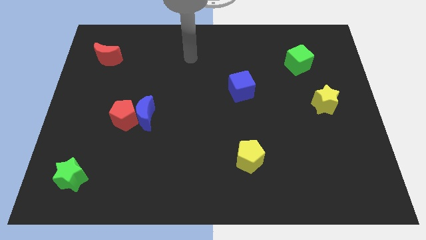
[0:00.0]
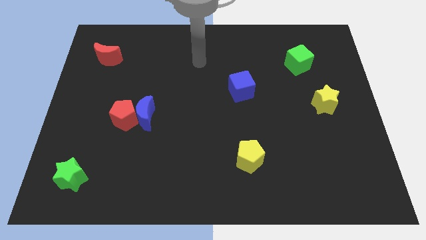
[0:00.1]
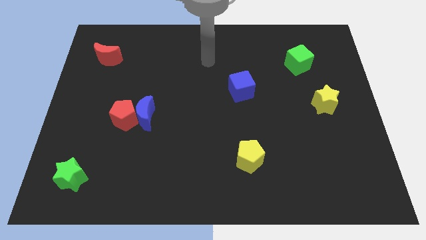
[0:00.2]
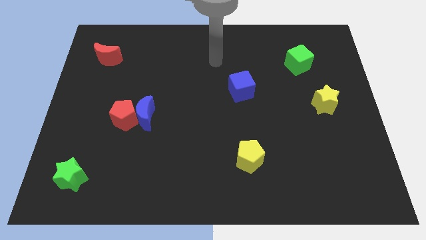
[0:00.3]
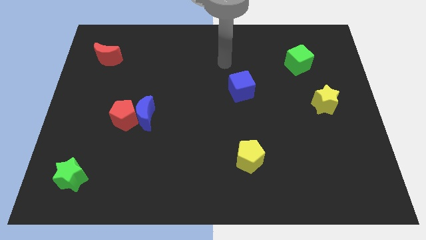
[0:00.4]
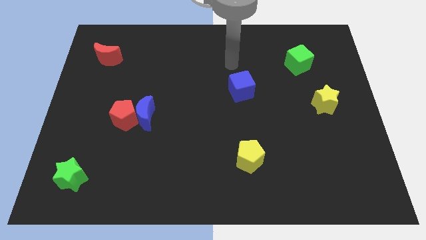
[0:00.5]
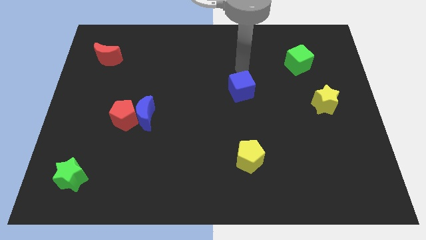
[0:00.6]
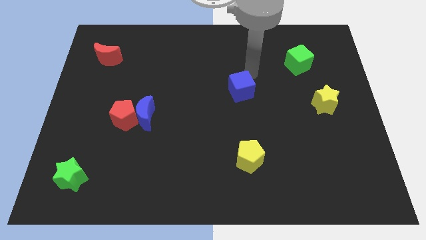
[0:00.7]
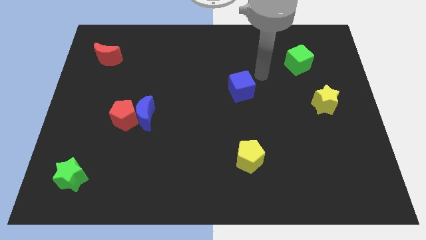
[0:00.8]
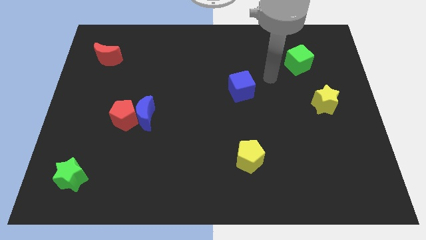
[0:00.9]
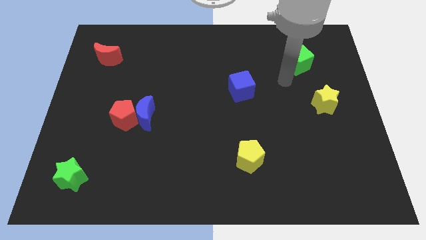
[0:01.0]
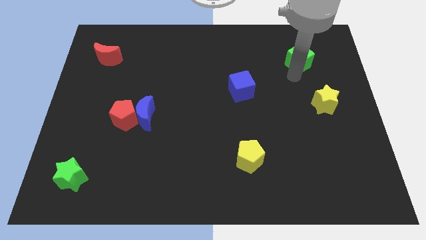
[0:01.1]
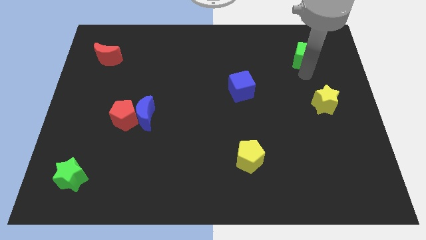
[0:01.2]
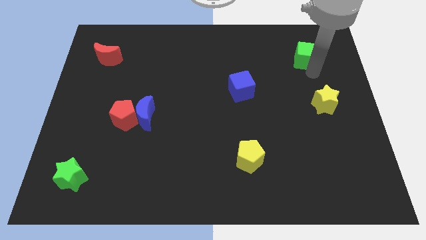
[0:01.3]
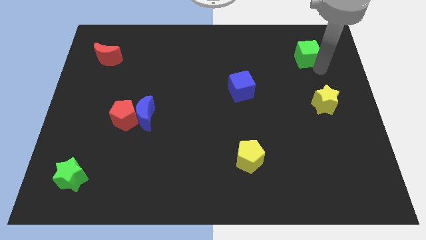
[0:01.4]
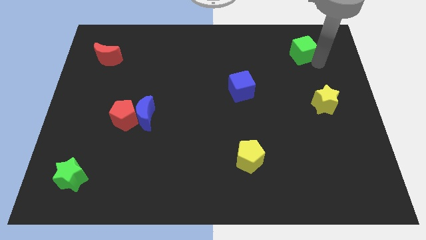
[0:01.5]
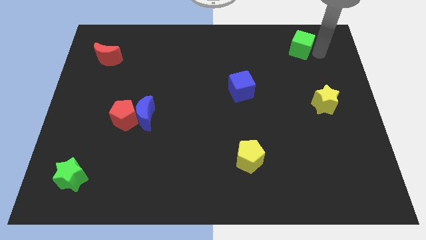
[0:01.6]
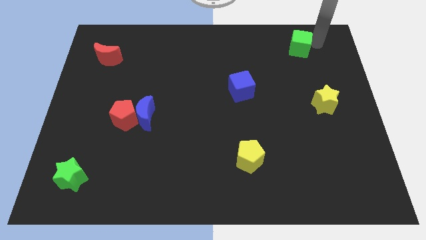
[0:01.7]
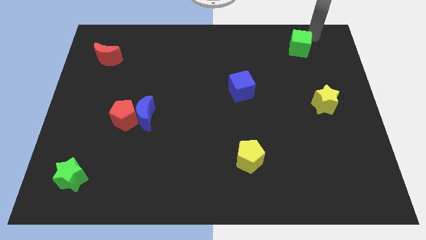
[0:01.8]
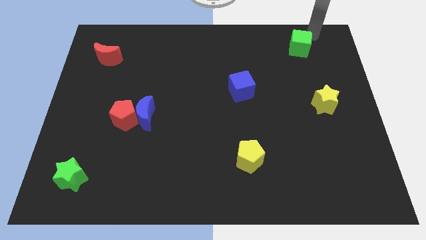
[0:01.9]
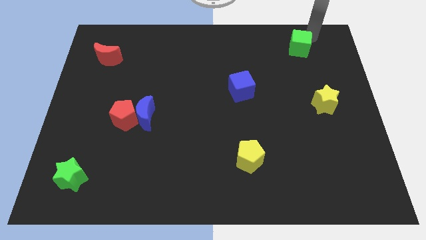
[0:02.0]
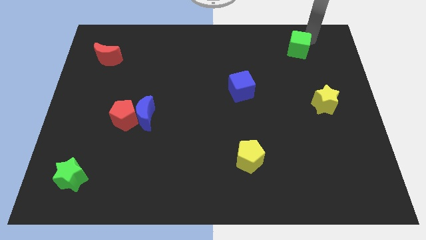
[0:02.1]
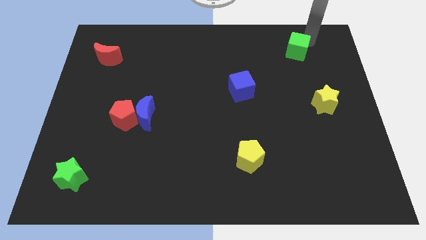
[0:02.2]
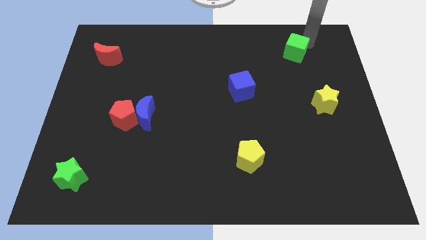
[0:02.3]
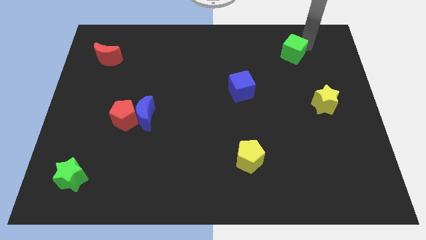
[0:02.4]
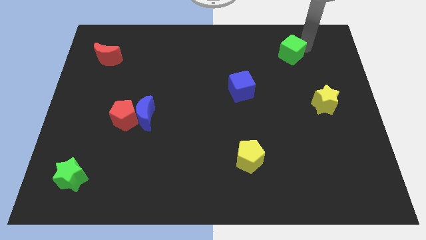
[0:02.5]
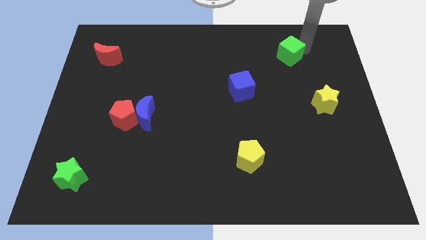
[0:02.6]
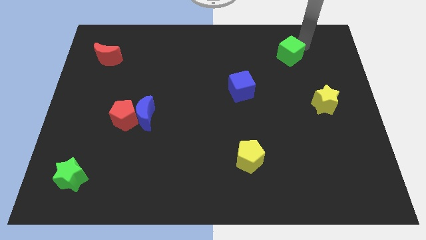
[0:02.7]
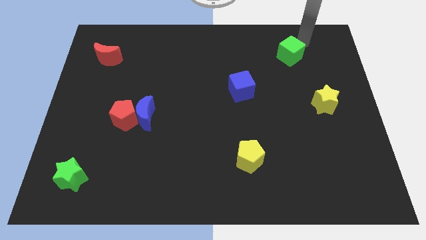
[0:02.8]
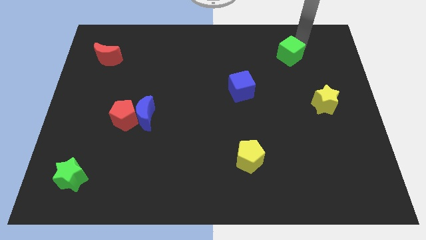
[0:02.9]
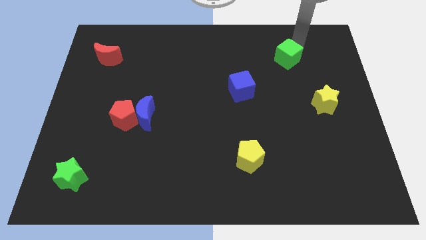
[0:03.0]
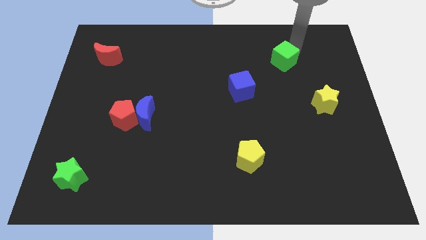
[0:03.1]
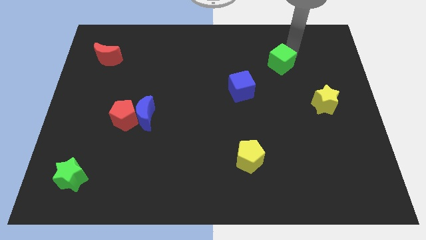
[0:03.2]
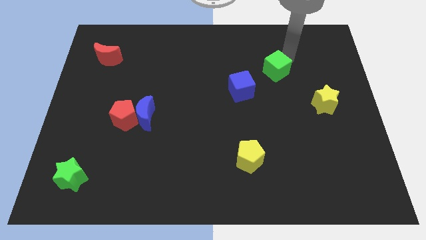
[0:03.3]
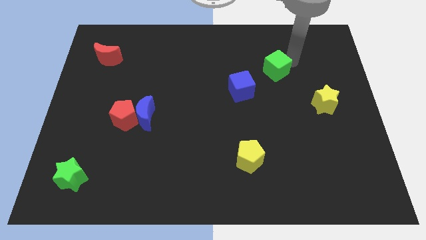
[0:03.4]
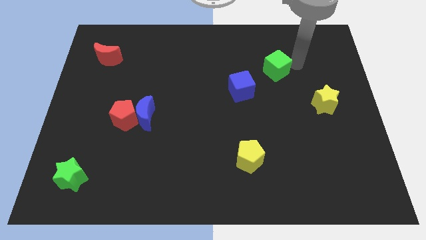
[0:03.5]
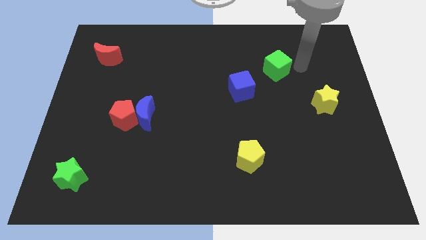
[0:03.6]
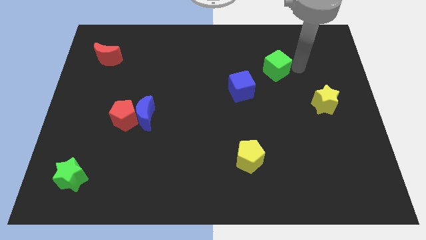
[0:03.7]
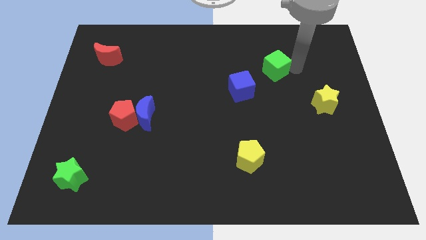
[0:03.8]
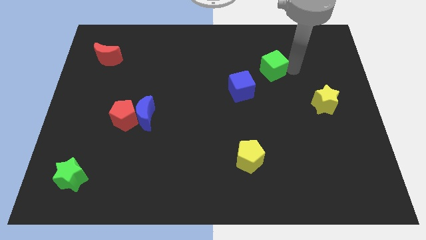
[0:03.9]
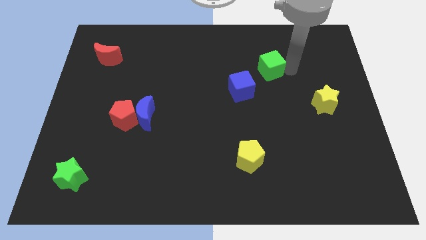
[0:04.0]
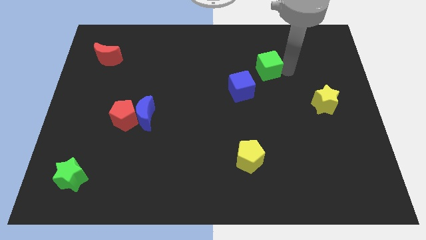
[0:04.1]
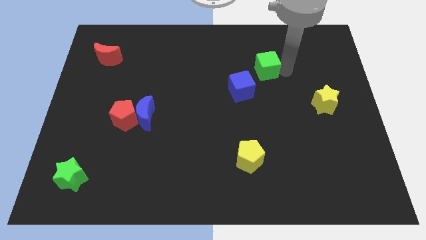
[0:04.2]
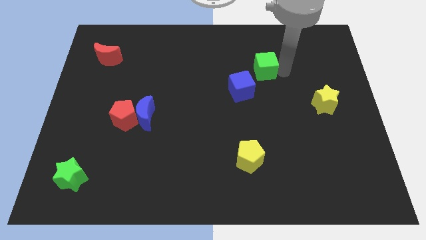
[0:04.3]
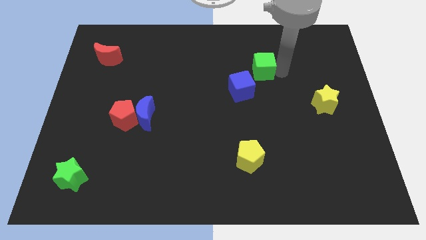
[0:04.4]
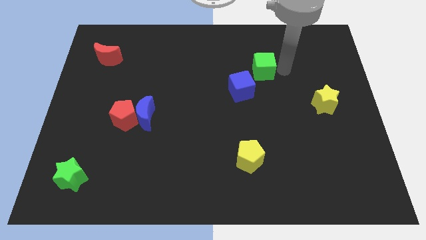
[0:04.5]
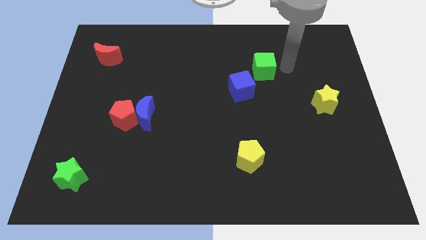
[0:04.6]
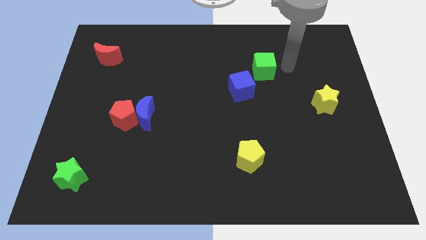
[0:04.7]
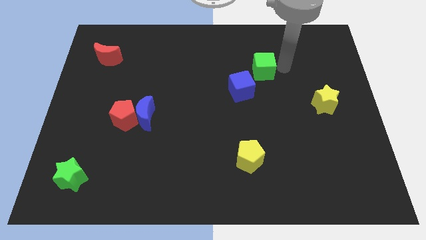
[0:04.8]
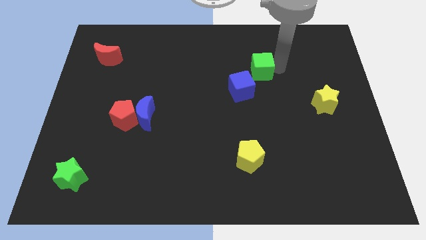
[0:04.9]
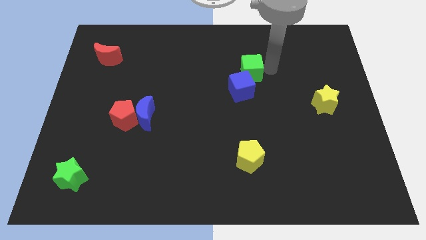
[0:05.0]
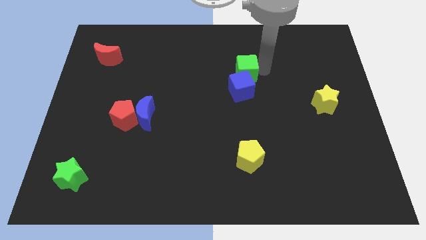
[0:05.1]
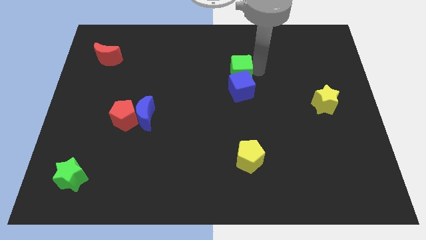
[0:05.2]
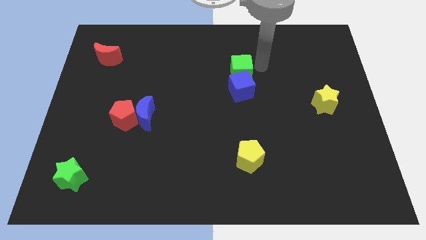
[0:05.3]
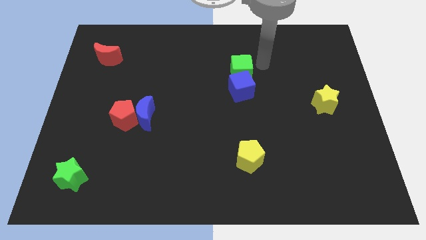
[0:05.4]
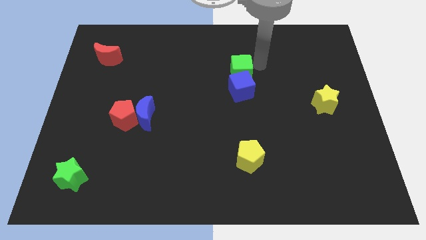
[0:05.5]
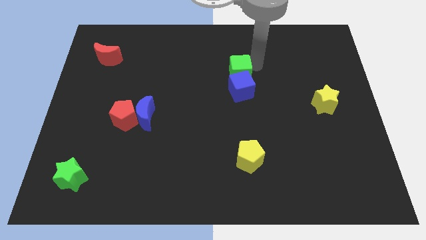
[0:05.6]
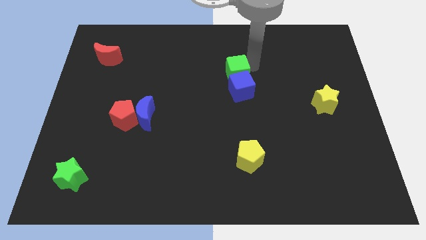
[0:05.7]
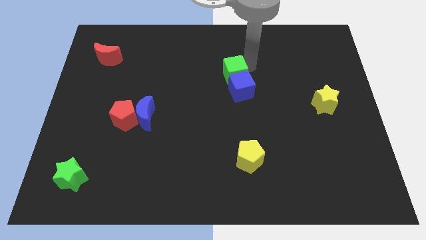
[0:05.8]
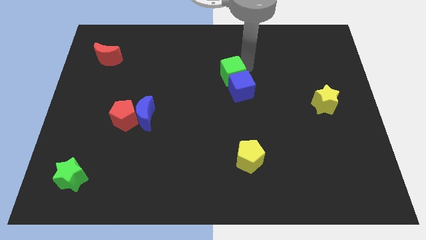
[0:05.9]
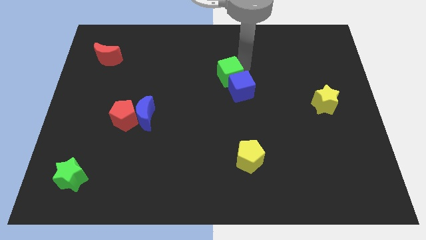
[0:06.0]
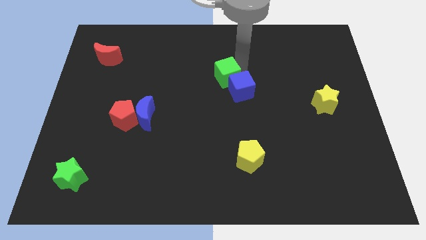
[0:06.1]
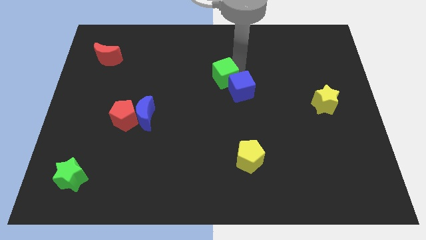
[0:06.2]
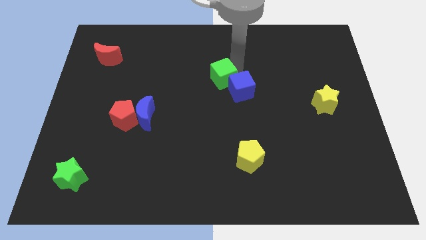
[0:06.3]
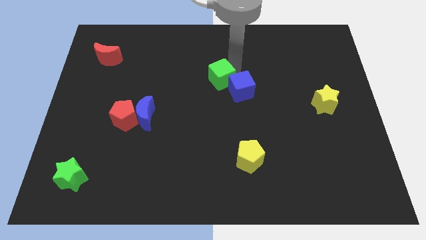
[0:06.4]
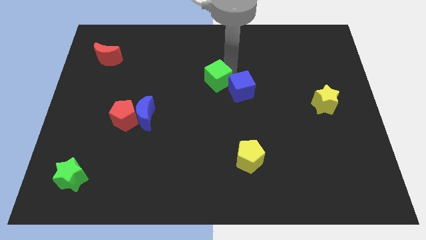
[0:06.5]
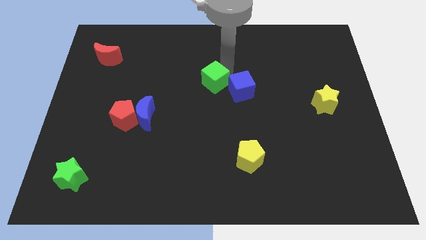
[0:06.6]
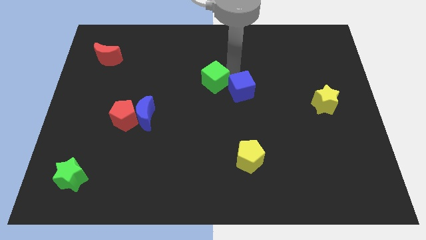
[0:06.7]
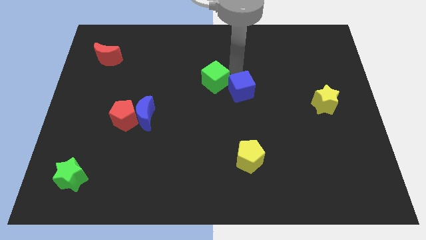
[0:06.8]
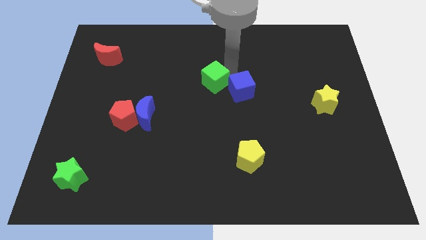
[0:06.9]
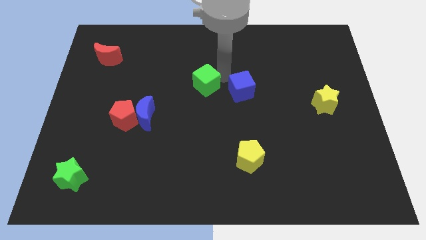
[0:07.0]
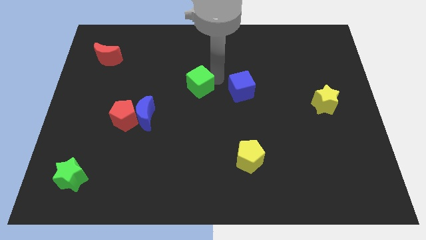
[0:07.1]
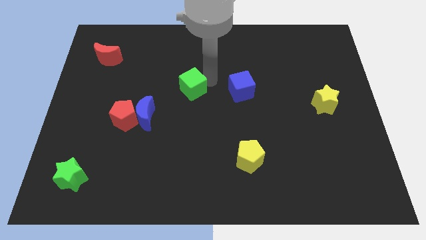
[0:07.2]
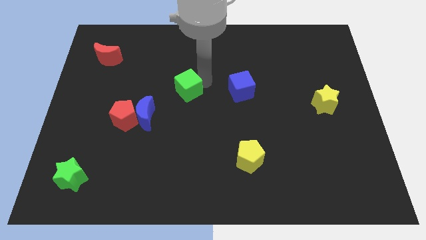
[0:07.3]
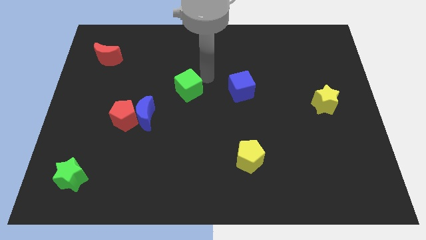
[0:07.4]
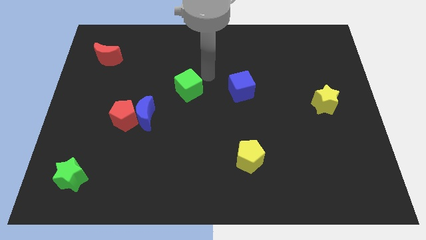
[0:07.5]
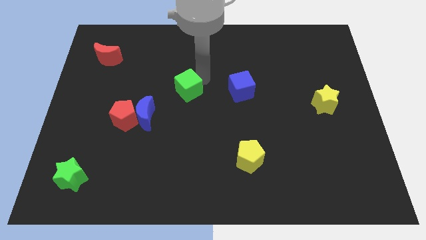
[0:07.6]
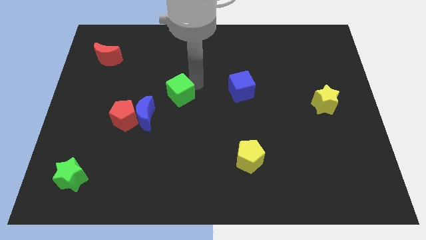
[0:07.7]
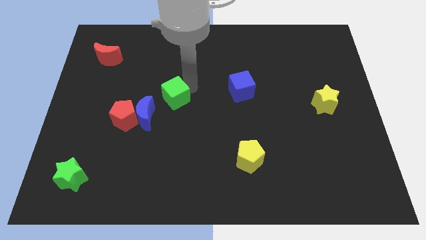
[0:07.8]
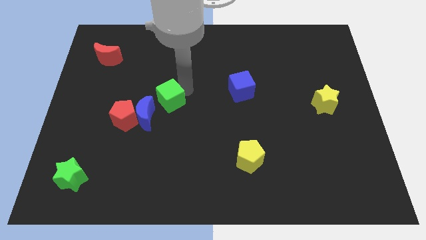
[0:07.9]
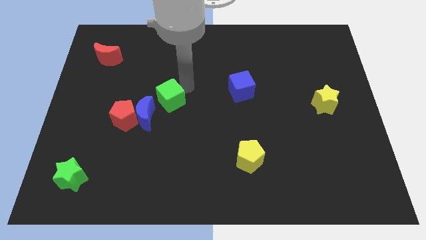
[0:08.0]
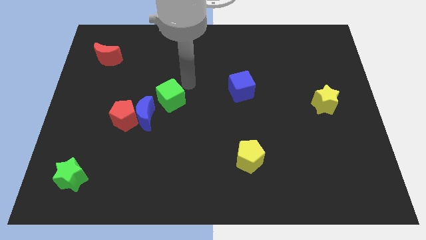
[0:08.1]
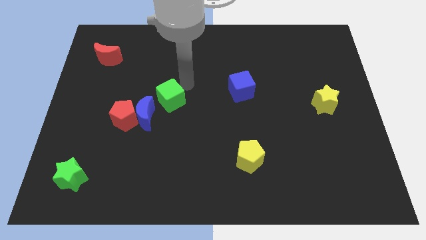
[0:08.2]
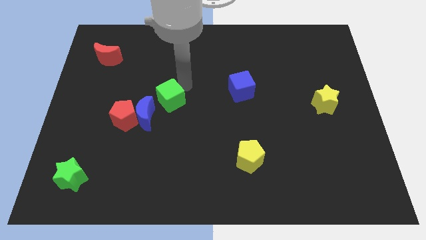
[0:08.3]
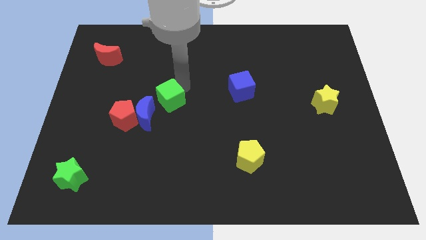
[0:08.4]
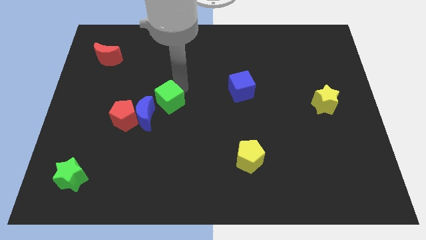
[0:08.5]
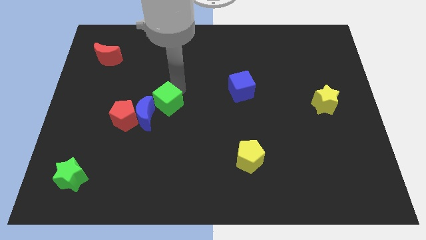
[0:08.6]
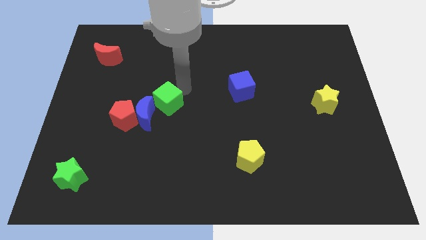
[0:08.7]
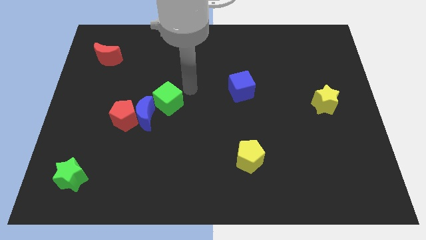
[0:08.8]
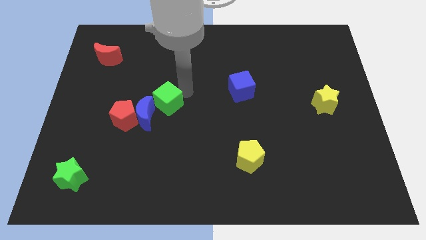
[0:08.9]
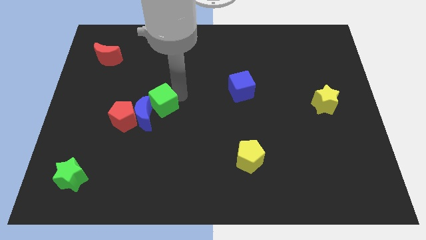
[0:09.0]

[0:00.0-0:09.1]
put the green cube close to the blue moon
